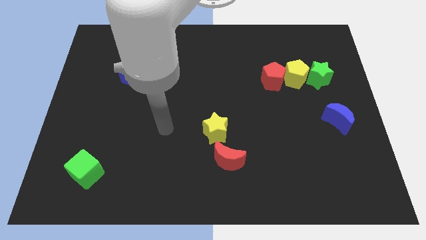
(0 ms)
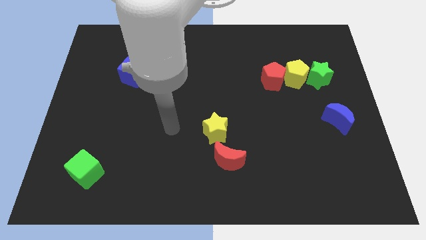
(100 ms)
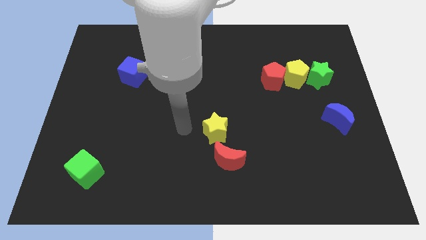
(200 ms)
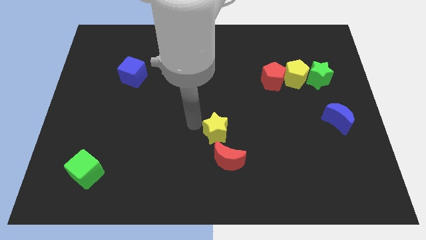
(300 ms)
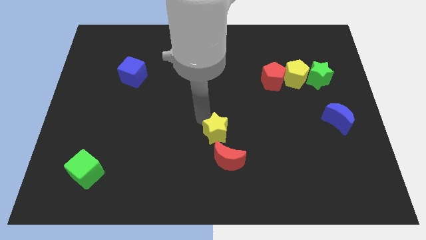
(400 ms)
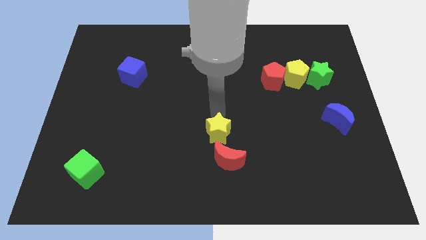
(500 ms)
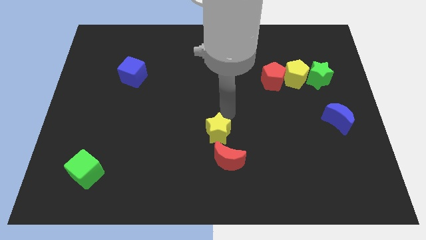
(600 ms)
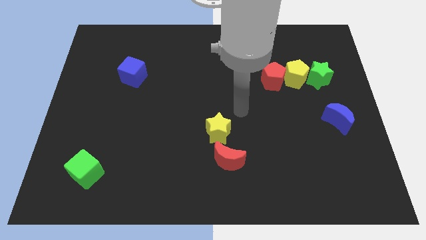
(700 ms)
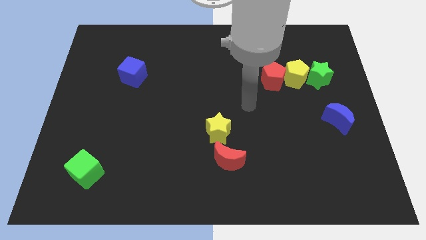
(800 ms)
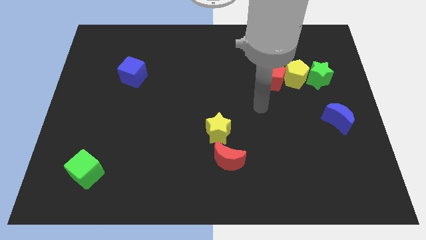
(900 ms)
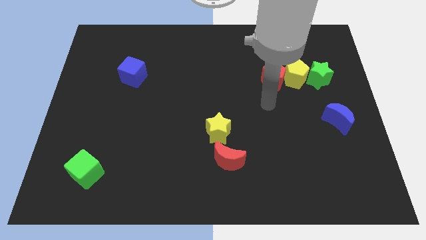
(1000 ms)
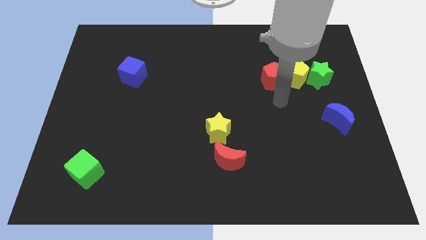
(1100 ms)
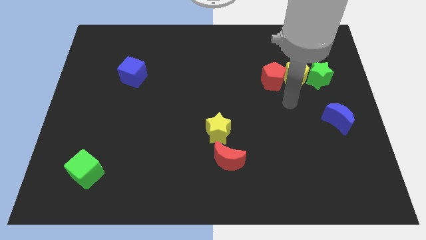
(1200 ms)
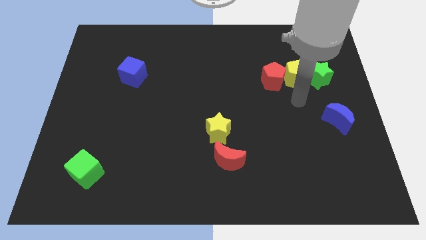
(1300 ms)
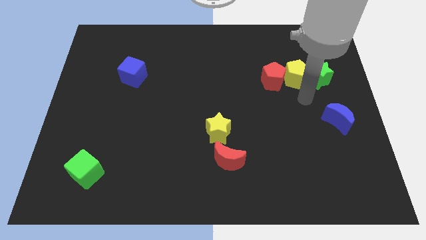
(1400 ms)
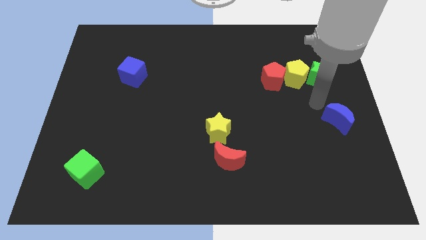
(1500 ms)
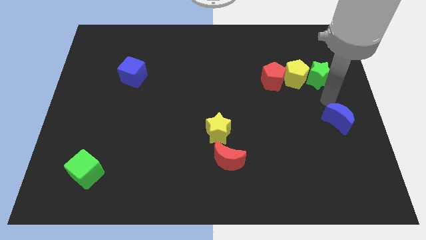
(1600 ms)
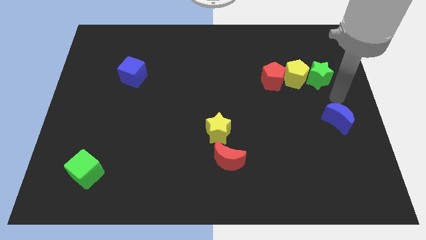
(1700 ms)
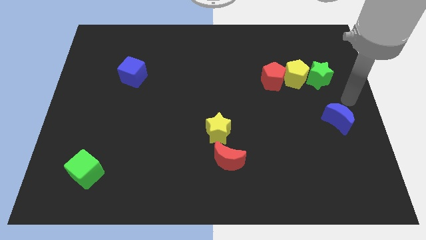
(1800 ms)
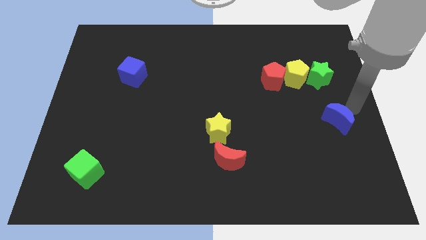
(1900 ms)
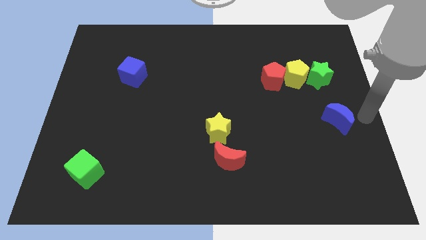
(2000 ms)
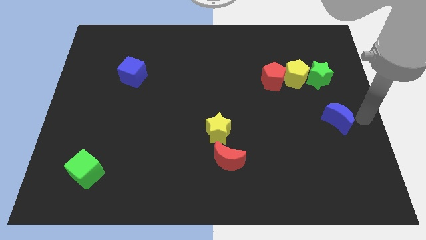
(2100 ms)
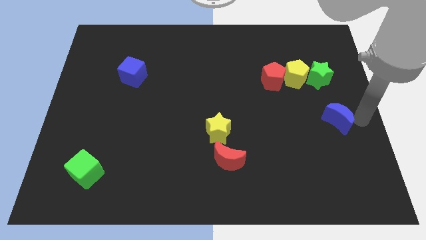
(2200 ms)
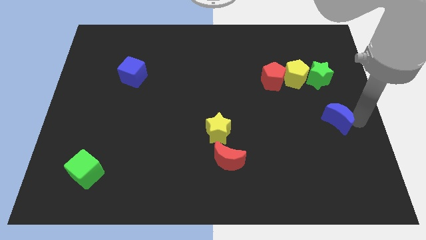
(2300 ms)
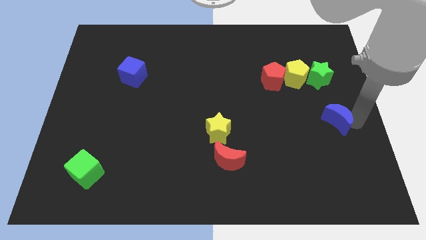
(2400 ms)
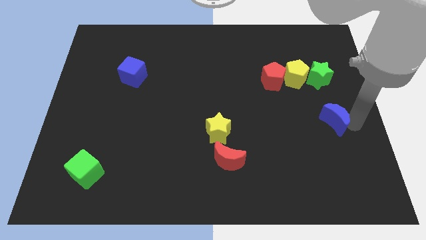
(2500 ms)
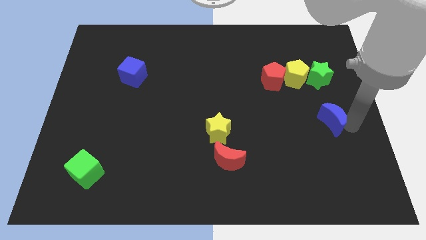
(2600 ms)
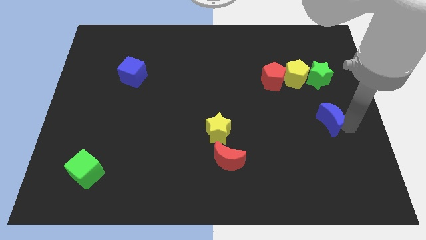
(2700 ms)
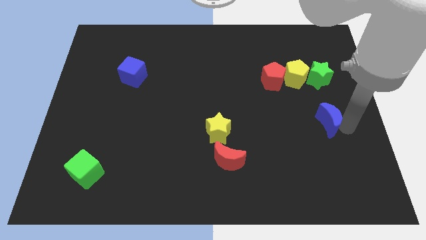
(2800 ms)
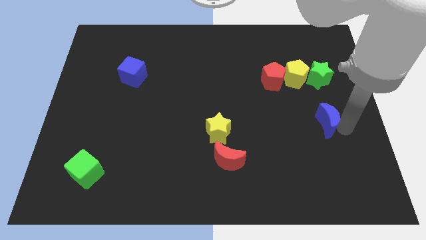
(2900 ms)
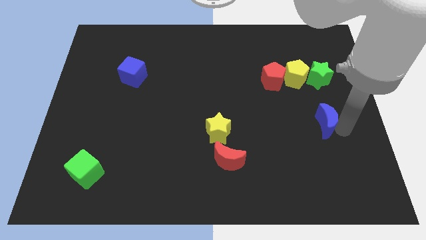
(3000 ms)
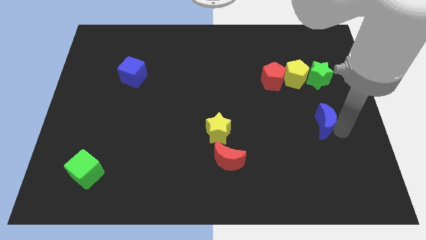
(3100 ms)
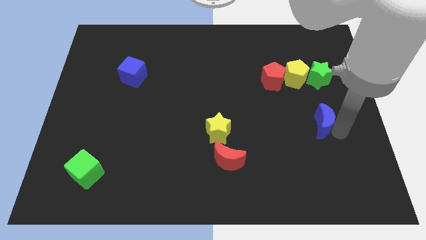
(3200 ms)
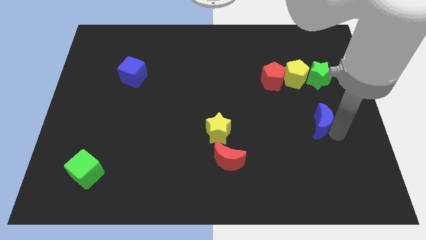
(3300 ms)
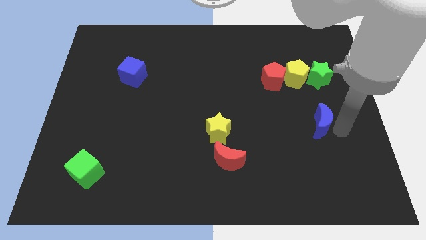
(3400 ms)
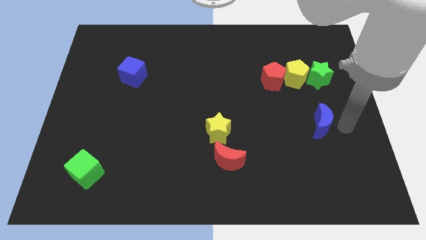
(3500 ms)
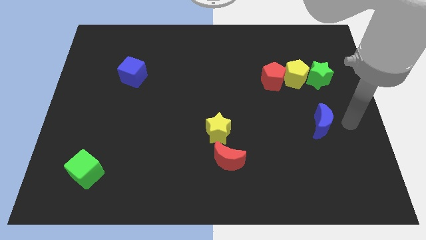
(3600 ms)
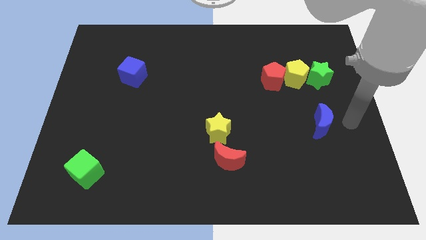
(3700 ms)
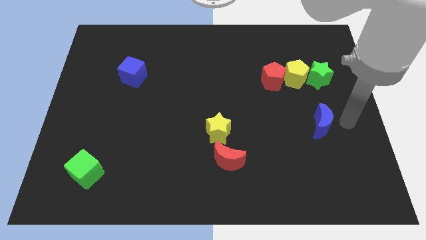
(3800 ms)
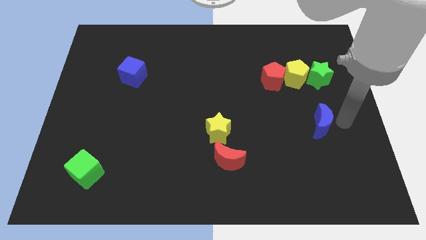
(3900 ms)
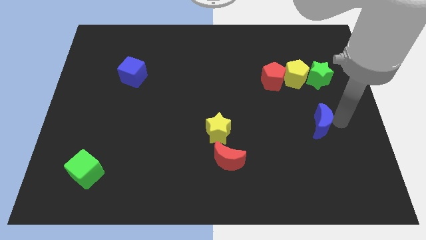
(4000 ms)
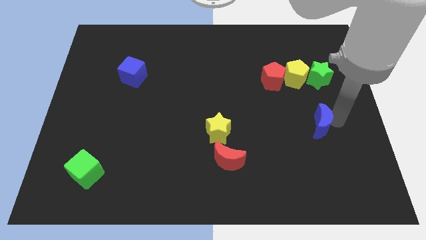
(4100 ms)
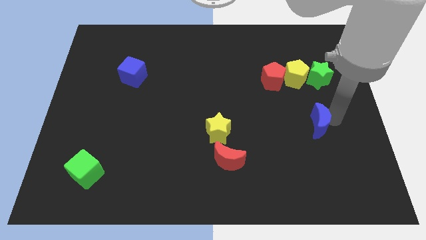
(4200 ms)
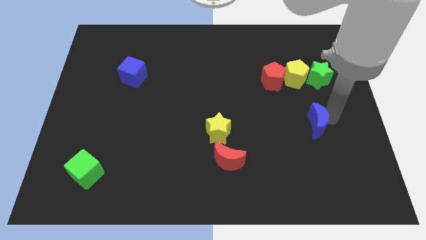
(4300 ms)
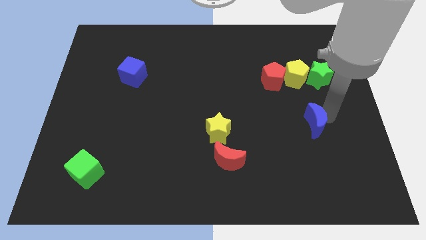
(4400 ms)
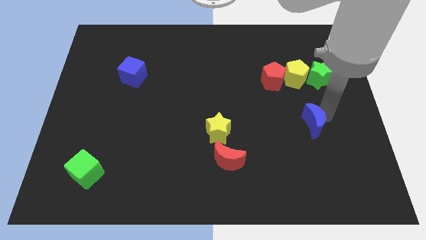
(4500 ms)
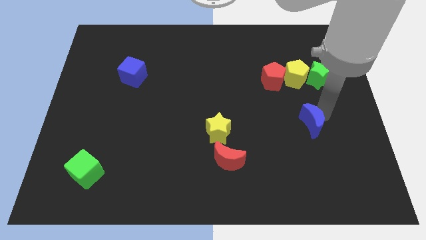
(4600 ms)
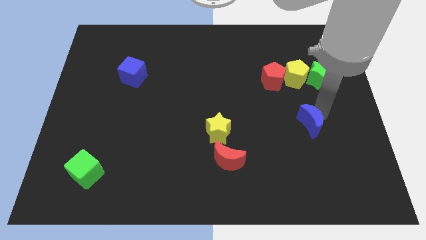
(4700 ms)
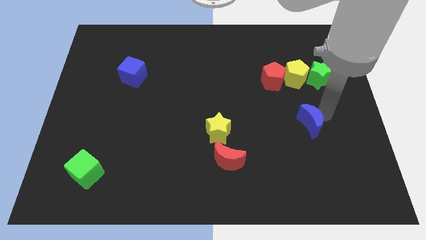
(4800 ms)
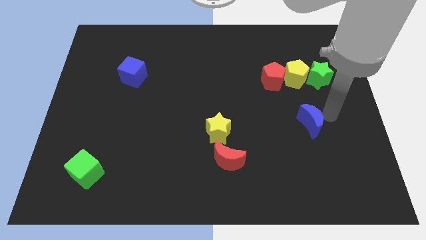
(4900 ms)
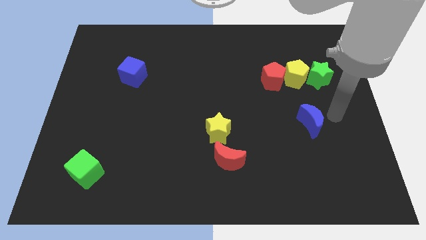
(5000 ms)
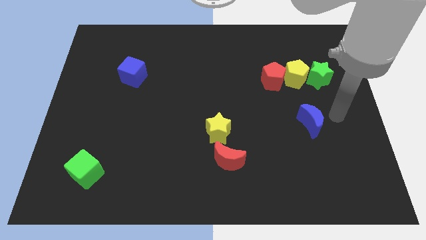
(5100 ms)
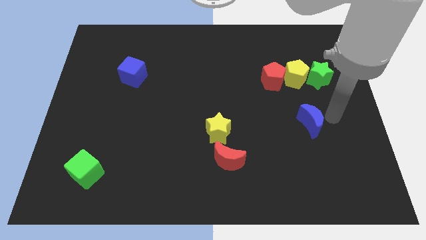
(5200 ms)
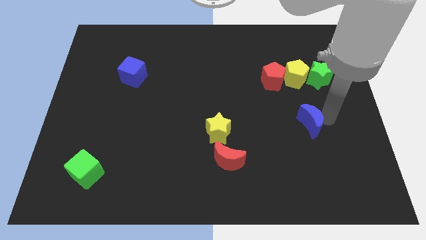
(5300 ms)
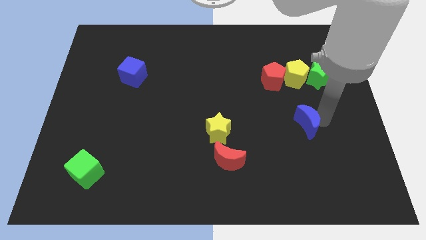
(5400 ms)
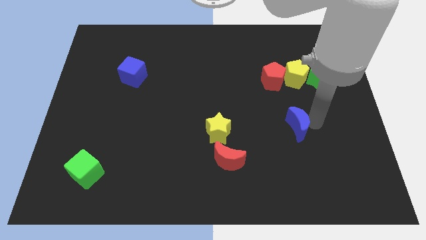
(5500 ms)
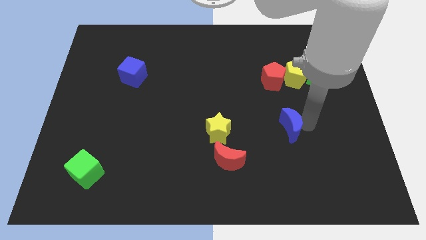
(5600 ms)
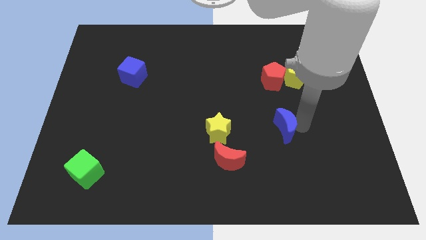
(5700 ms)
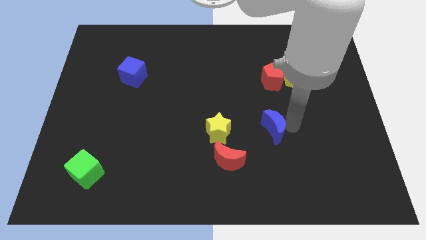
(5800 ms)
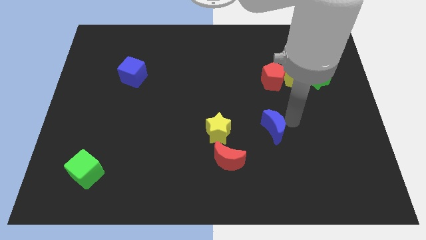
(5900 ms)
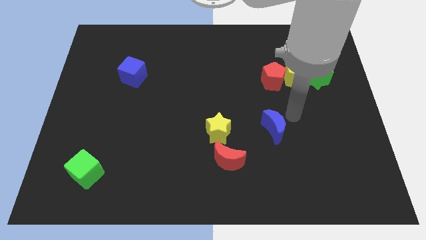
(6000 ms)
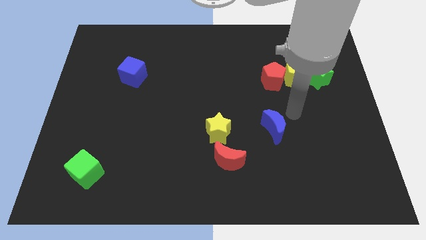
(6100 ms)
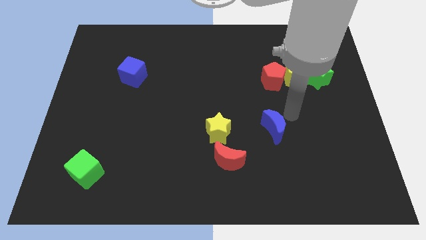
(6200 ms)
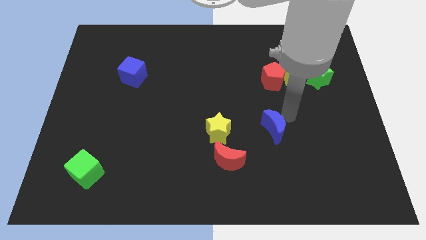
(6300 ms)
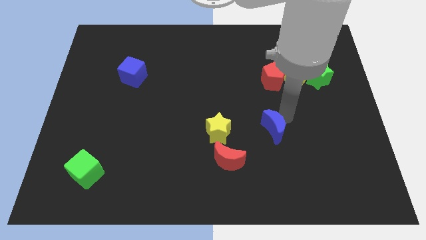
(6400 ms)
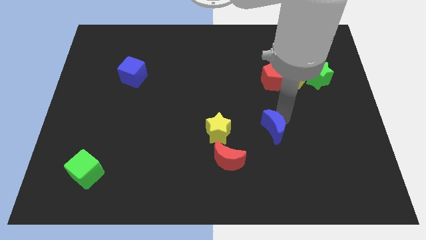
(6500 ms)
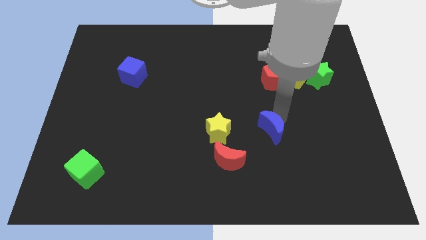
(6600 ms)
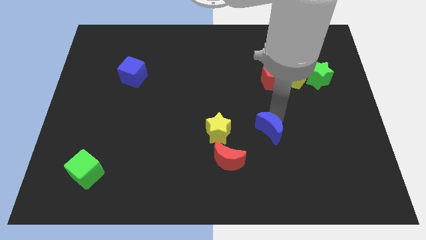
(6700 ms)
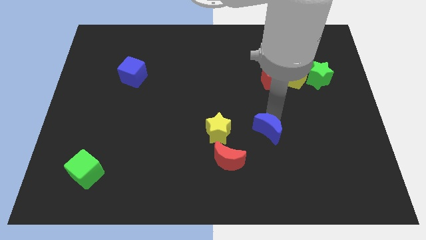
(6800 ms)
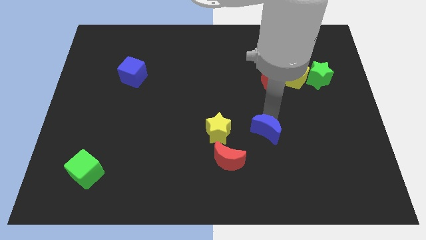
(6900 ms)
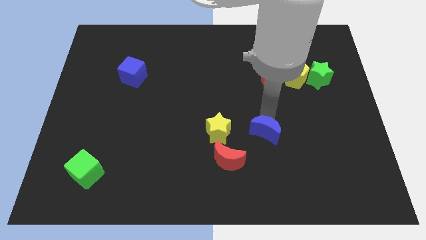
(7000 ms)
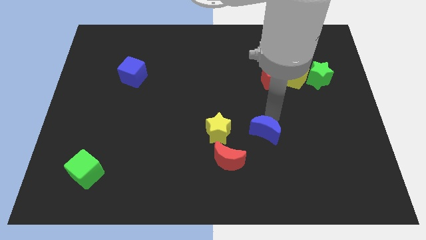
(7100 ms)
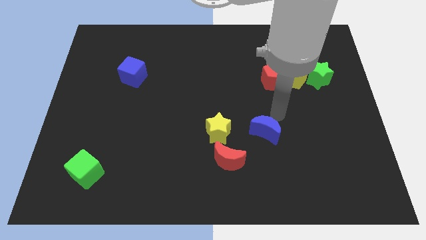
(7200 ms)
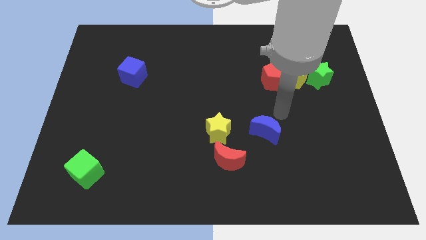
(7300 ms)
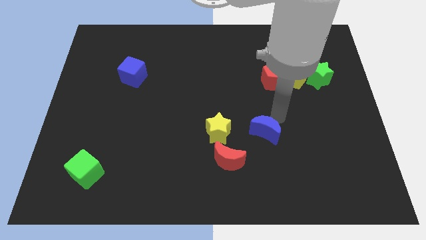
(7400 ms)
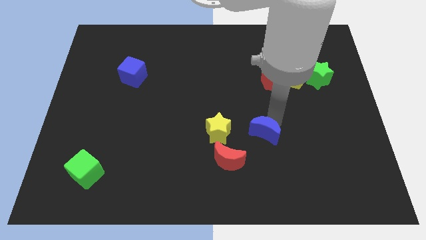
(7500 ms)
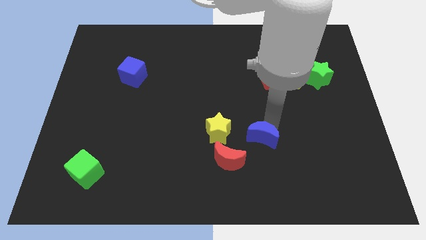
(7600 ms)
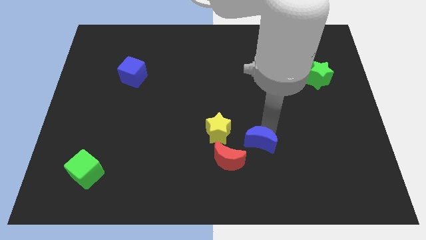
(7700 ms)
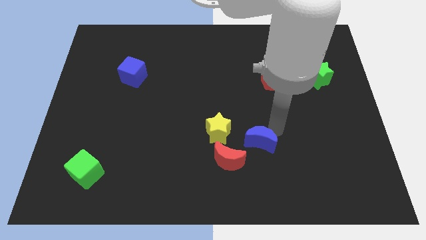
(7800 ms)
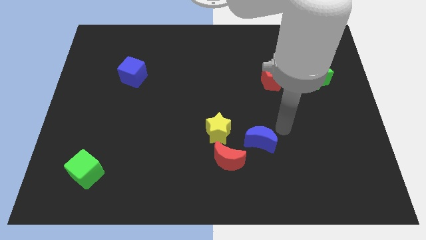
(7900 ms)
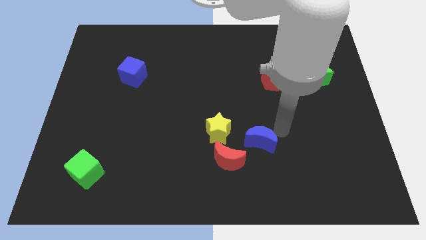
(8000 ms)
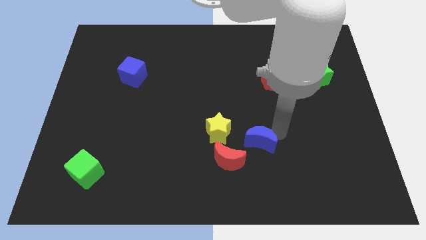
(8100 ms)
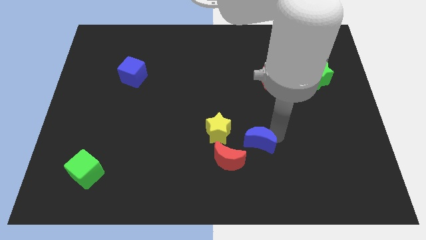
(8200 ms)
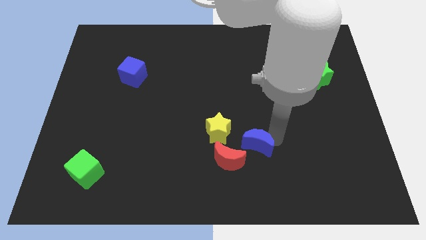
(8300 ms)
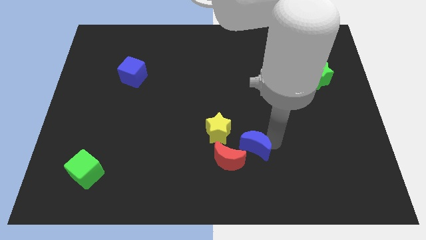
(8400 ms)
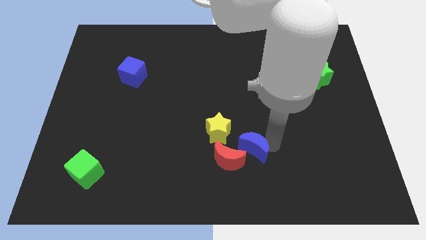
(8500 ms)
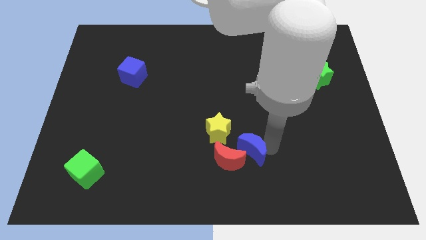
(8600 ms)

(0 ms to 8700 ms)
push the blue moon close to the red moon
